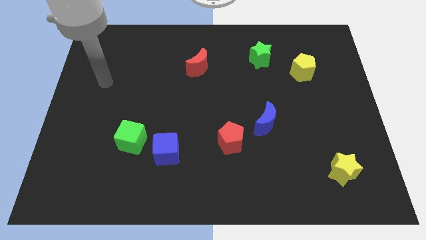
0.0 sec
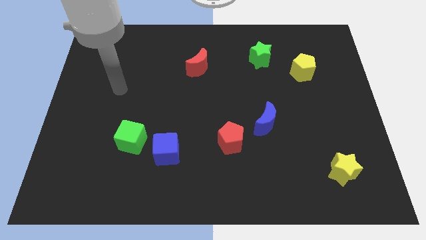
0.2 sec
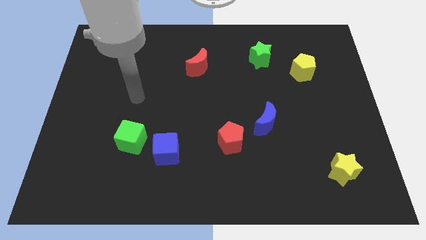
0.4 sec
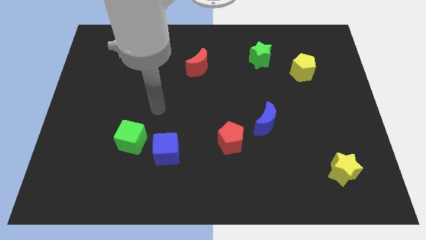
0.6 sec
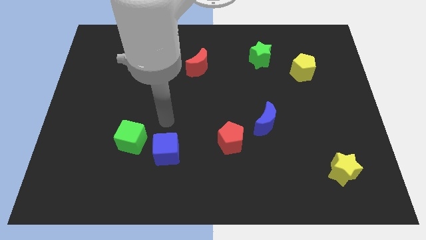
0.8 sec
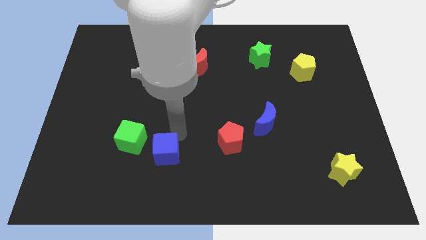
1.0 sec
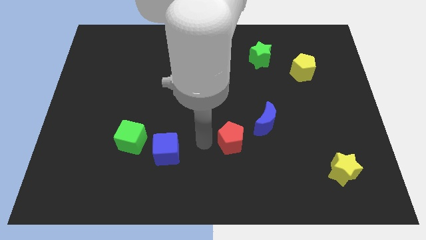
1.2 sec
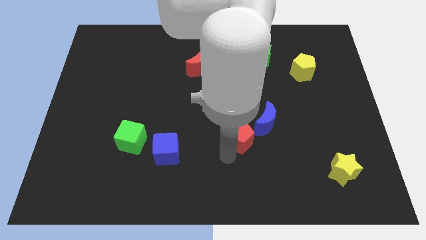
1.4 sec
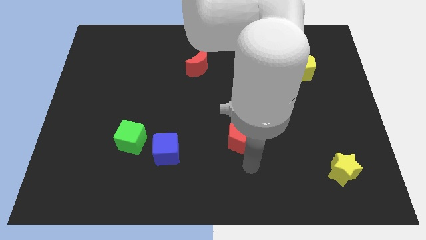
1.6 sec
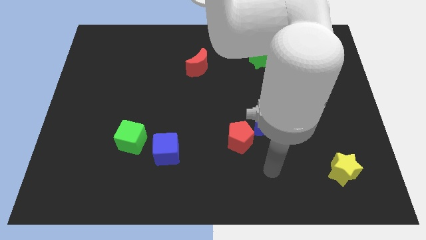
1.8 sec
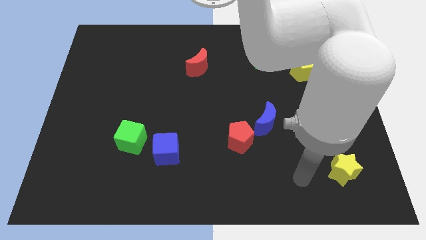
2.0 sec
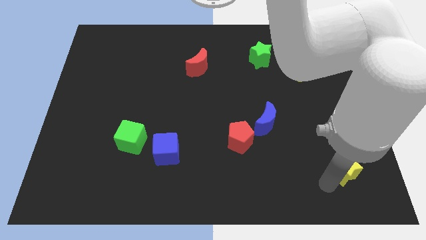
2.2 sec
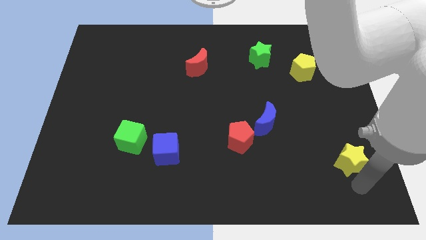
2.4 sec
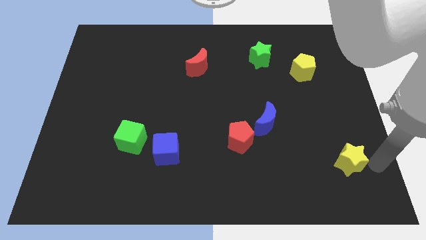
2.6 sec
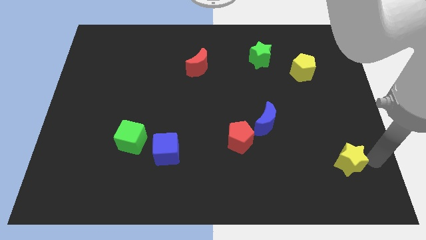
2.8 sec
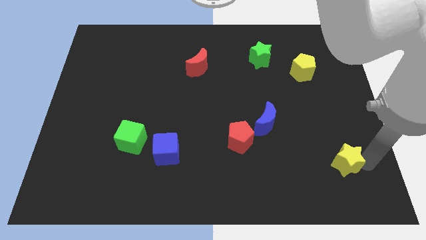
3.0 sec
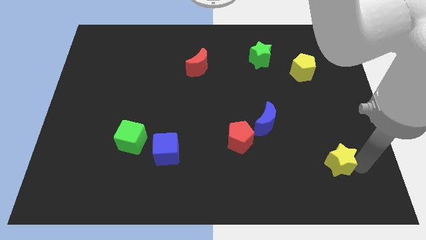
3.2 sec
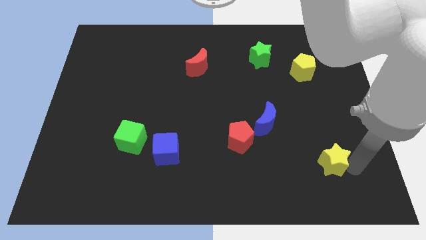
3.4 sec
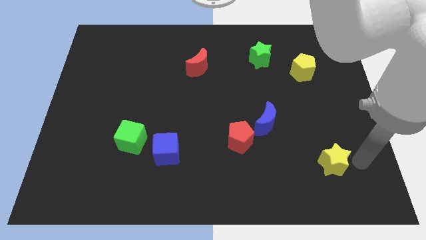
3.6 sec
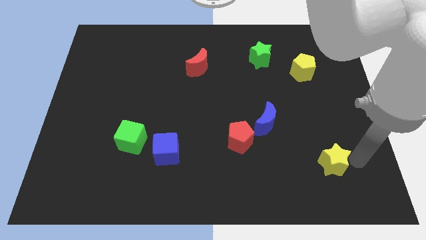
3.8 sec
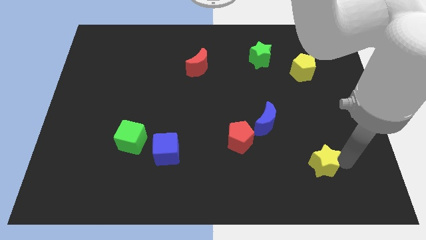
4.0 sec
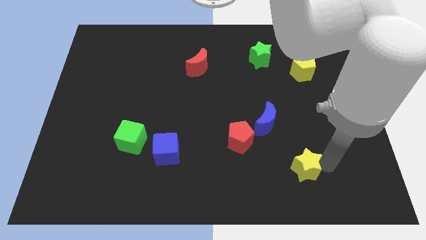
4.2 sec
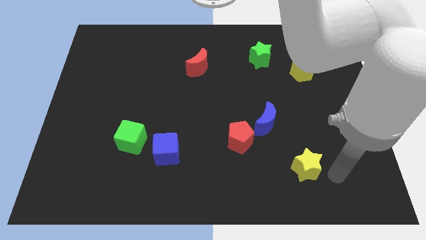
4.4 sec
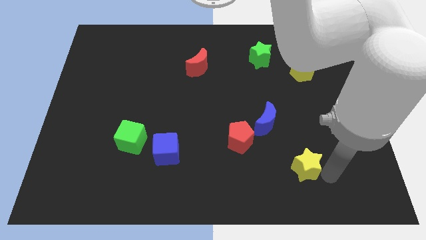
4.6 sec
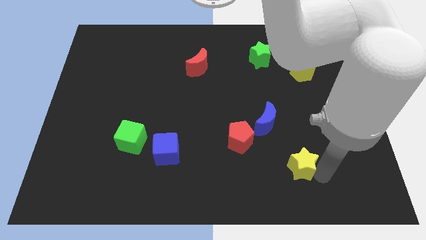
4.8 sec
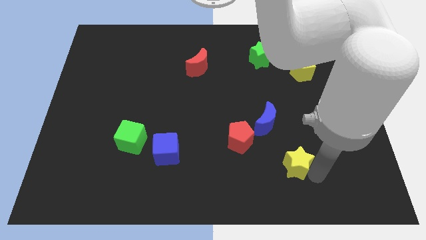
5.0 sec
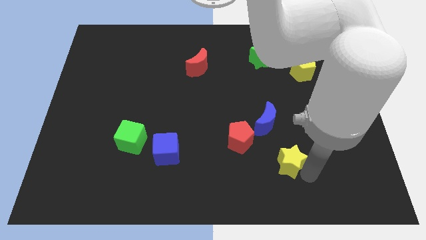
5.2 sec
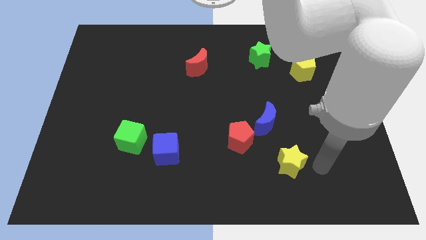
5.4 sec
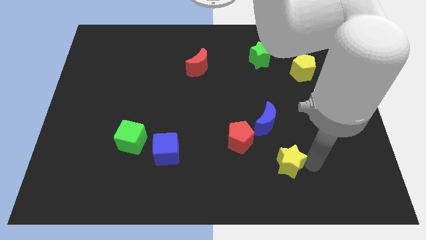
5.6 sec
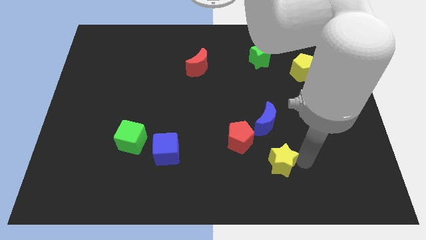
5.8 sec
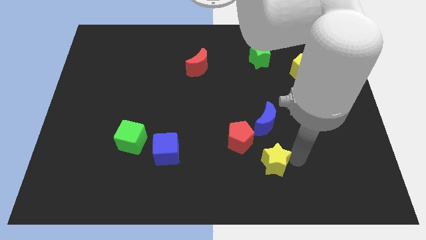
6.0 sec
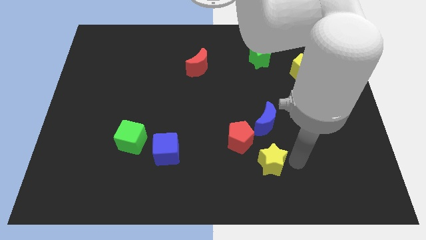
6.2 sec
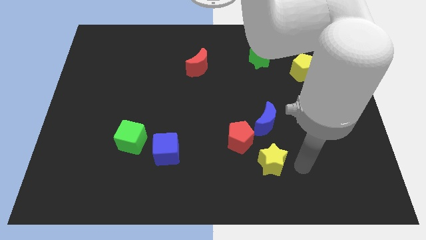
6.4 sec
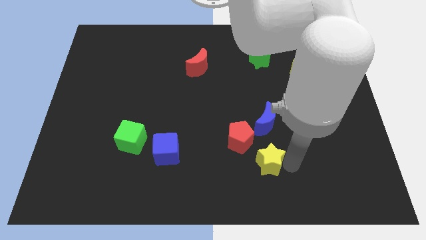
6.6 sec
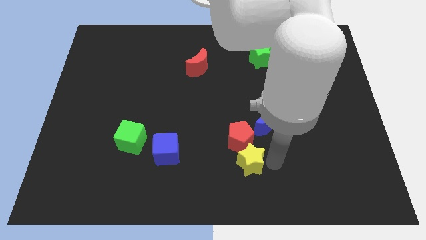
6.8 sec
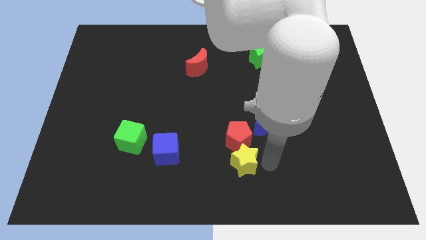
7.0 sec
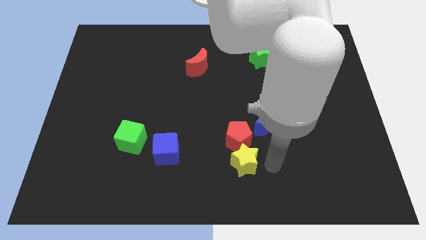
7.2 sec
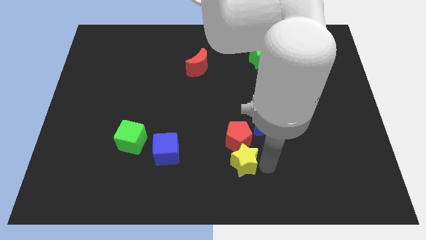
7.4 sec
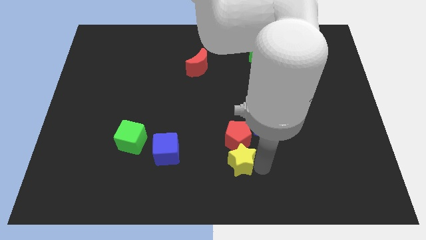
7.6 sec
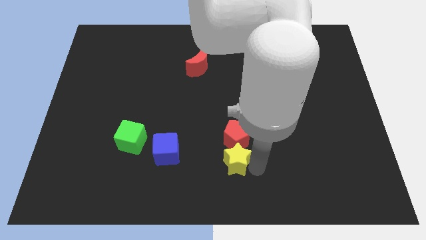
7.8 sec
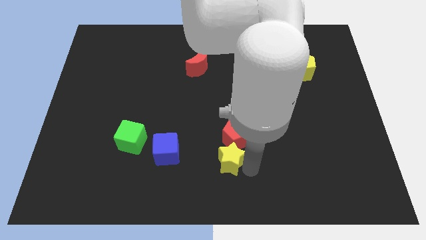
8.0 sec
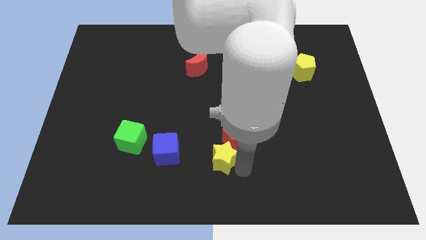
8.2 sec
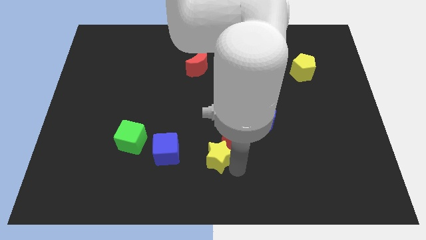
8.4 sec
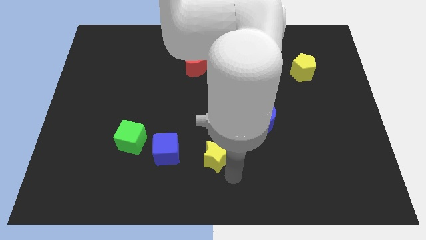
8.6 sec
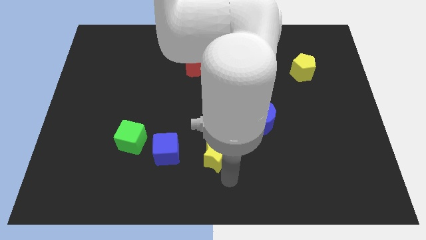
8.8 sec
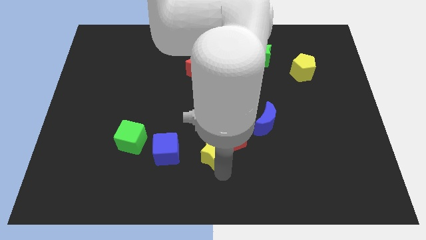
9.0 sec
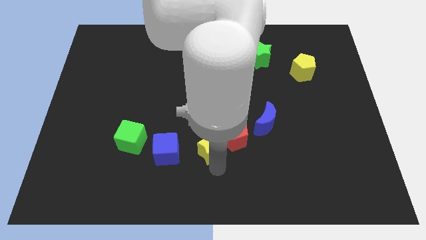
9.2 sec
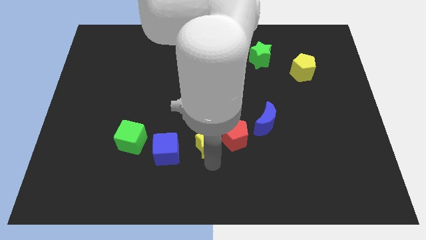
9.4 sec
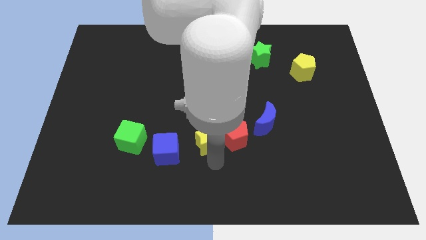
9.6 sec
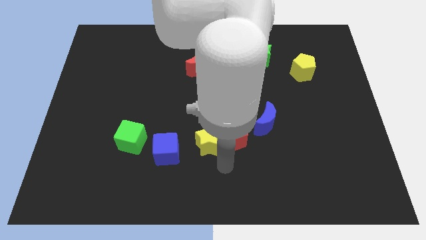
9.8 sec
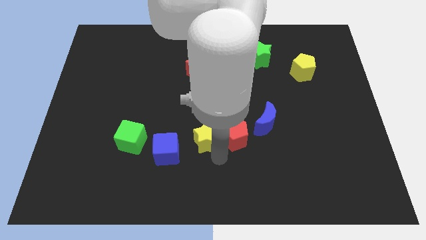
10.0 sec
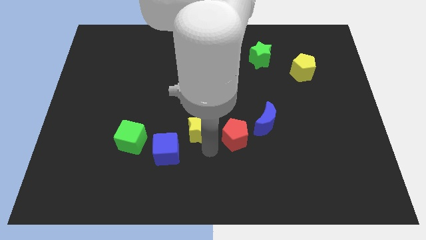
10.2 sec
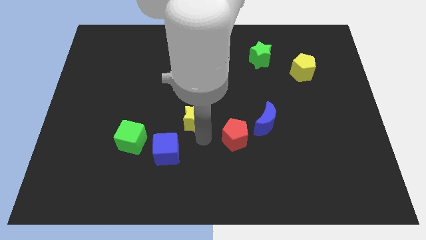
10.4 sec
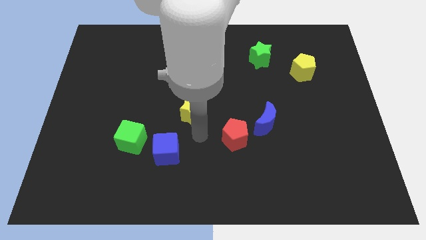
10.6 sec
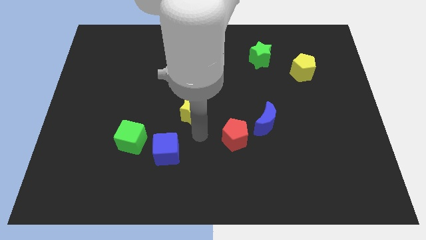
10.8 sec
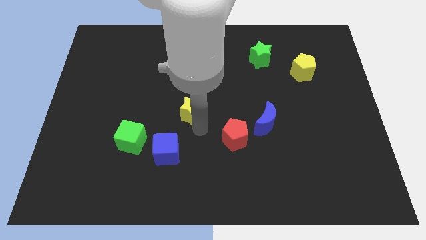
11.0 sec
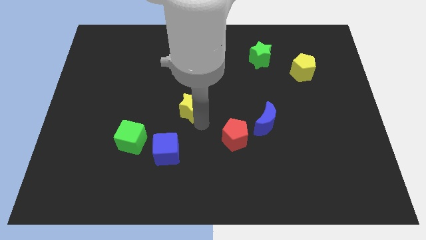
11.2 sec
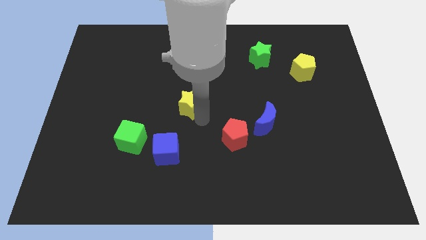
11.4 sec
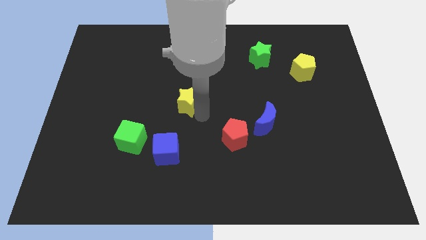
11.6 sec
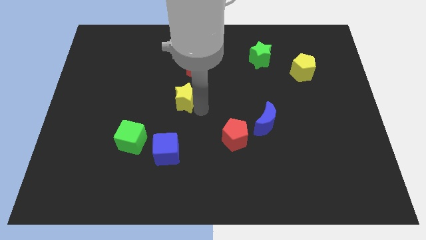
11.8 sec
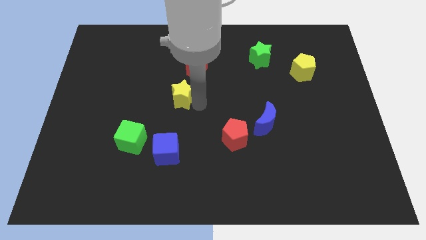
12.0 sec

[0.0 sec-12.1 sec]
push the yellow star to the bottom left side of the red moon

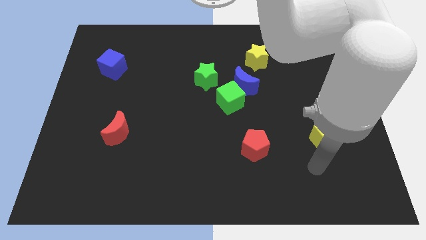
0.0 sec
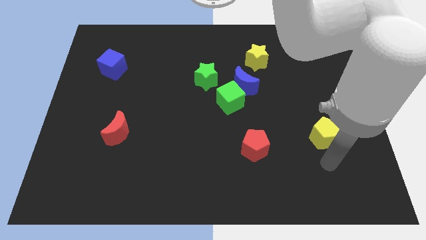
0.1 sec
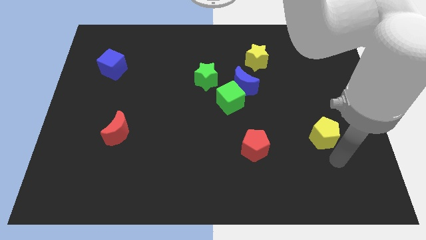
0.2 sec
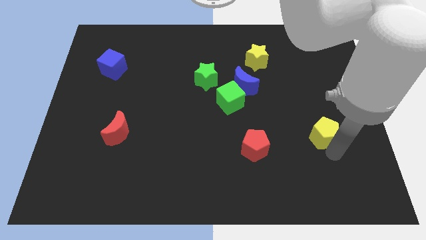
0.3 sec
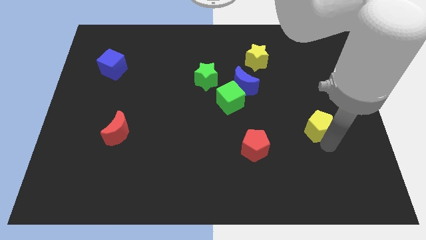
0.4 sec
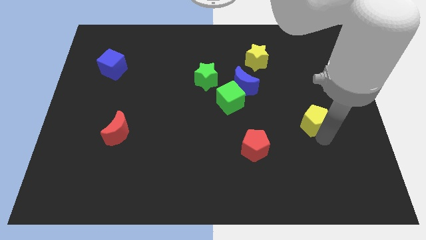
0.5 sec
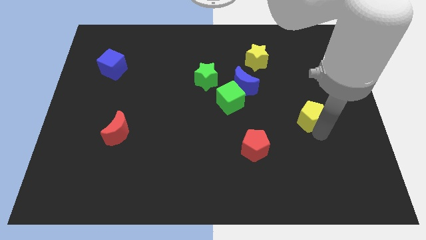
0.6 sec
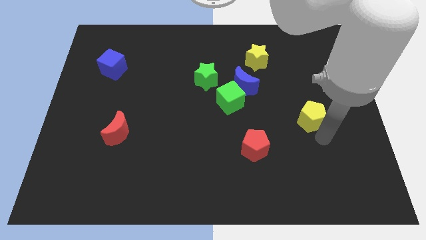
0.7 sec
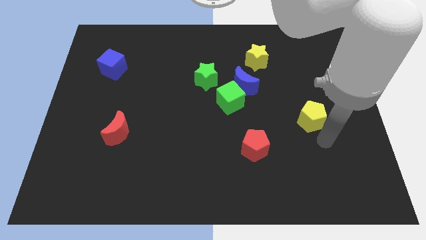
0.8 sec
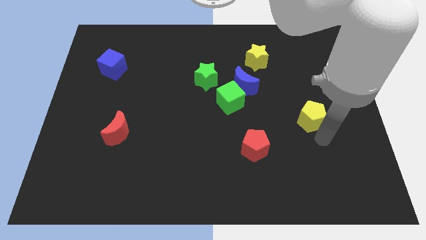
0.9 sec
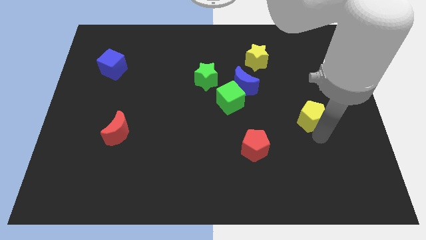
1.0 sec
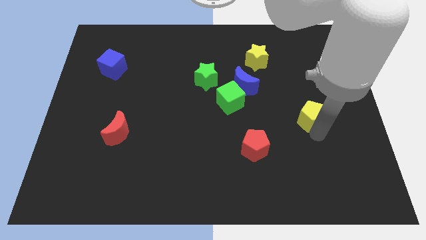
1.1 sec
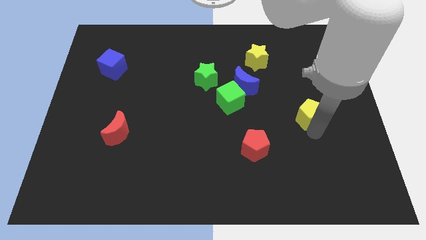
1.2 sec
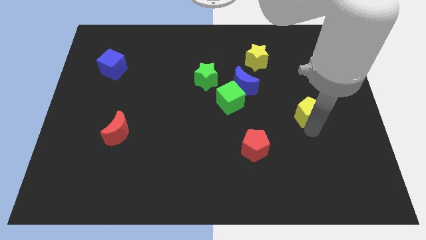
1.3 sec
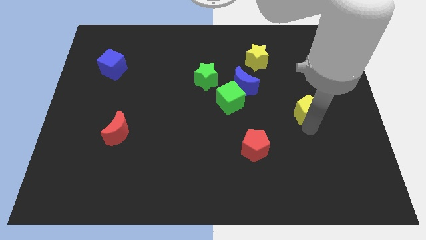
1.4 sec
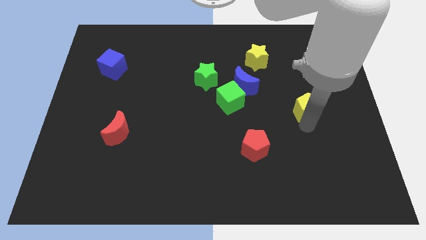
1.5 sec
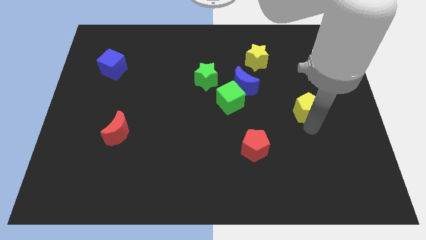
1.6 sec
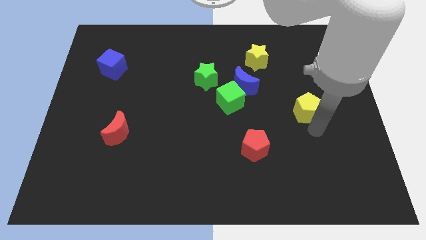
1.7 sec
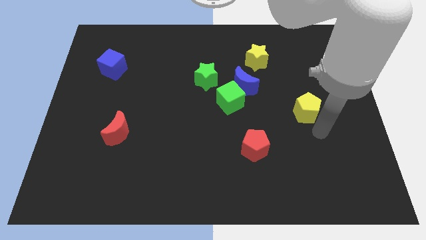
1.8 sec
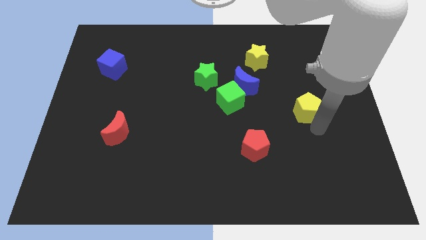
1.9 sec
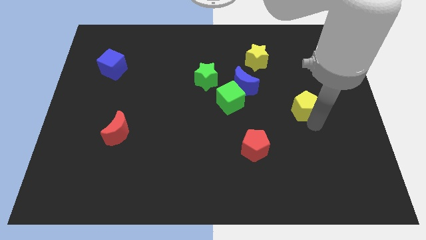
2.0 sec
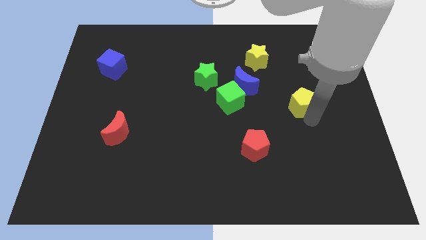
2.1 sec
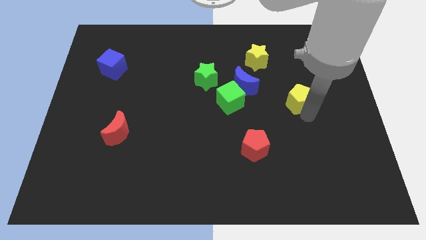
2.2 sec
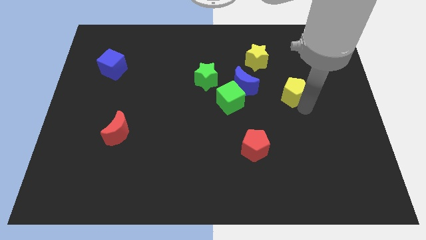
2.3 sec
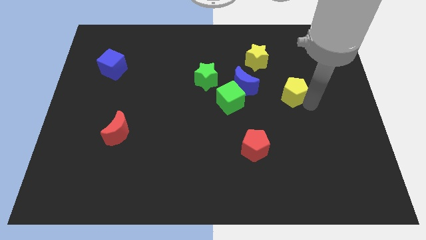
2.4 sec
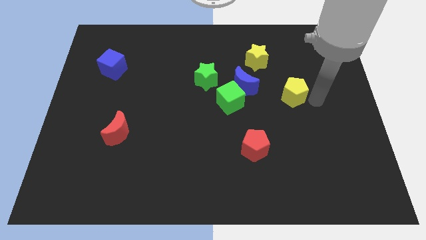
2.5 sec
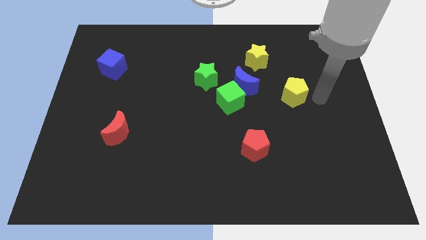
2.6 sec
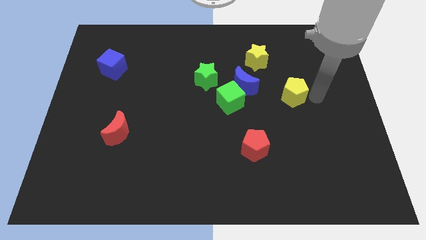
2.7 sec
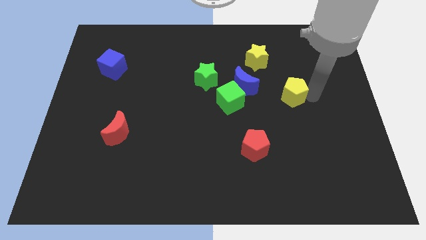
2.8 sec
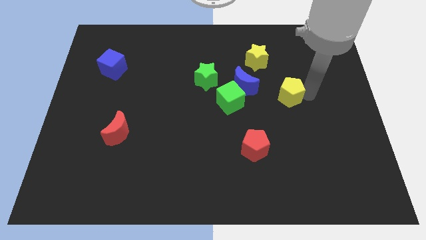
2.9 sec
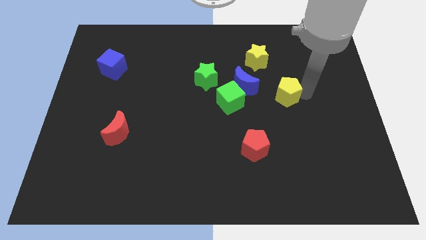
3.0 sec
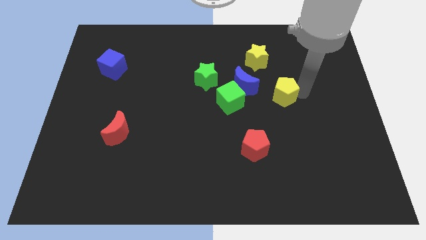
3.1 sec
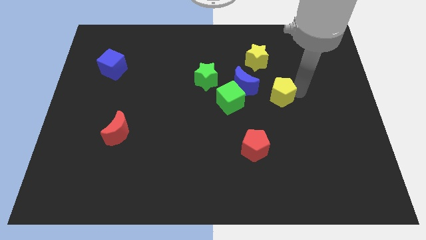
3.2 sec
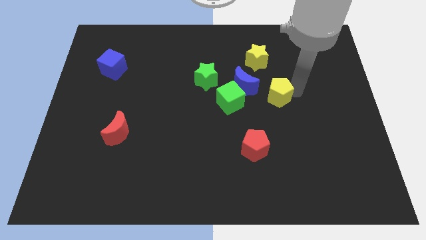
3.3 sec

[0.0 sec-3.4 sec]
push the yellow pentagon below the yellow star
